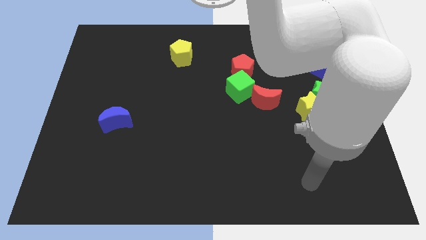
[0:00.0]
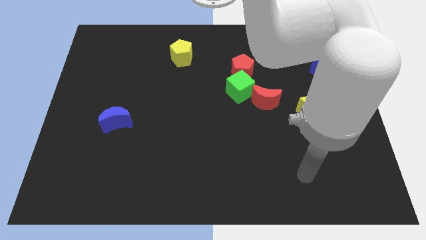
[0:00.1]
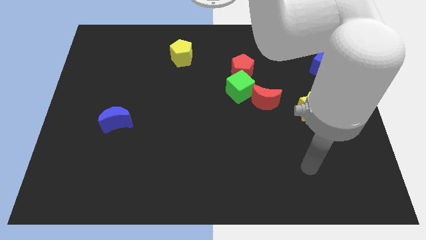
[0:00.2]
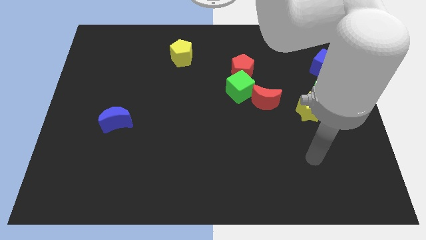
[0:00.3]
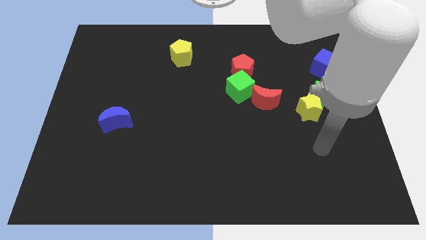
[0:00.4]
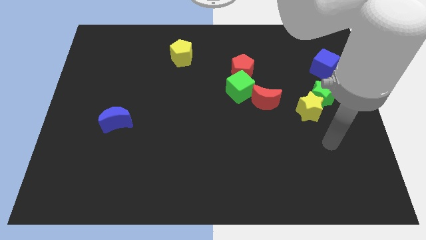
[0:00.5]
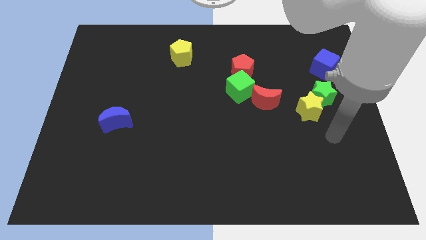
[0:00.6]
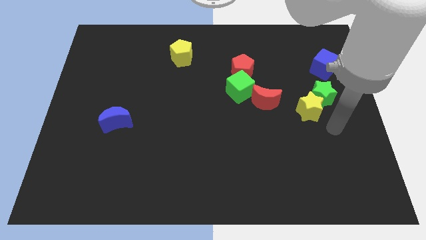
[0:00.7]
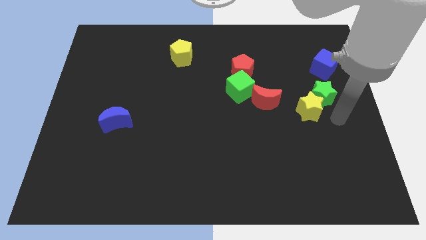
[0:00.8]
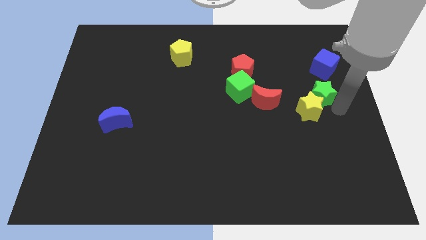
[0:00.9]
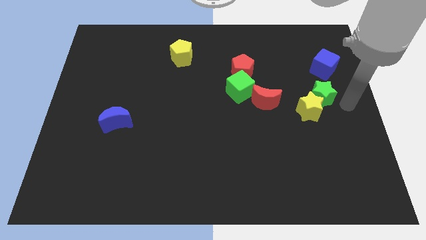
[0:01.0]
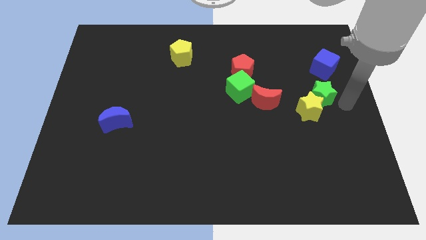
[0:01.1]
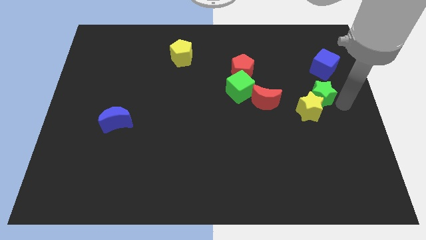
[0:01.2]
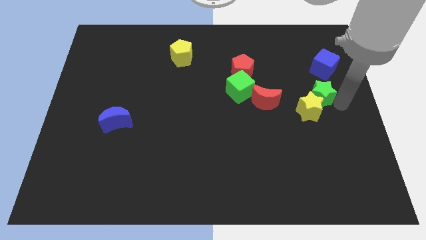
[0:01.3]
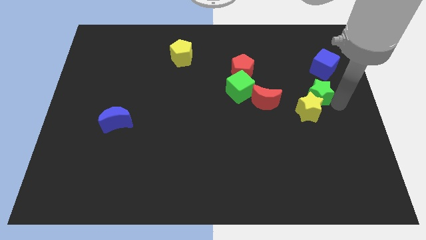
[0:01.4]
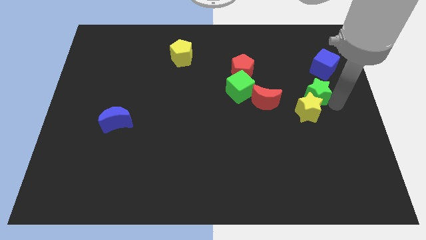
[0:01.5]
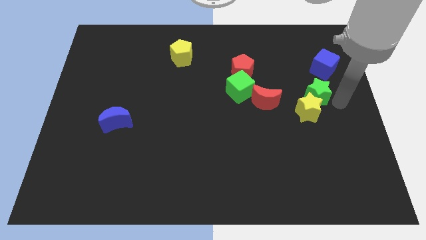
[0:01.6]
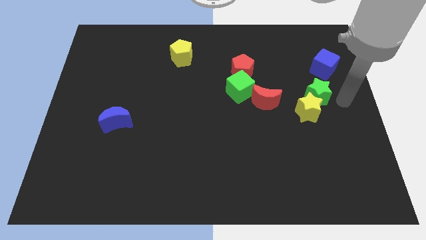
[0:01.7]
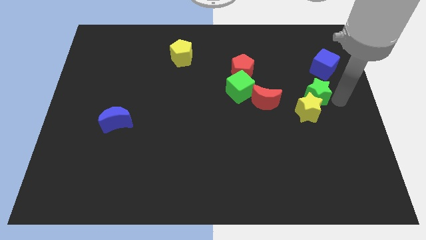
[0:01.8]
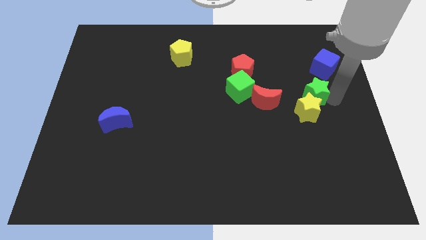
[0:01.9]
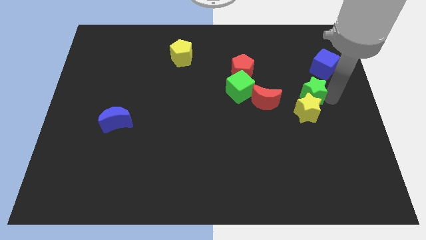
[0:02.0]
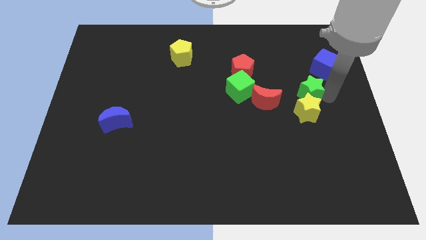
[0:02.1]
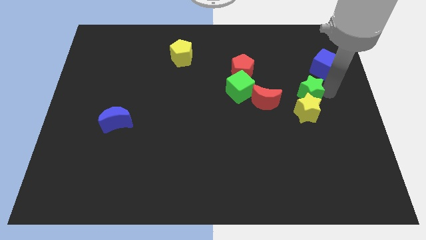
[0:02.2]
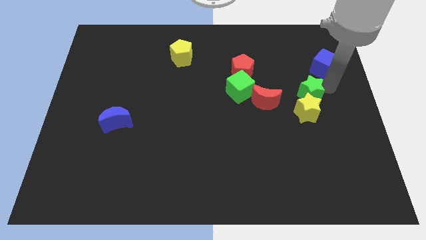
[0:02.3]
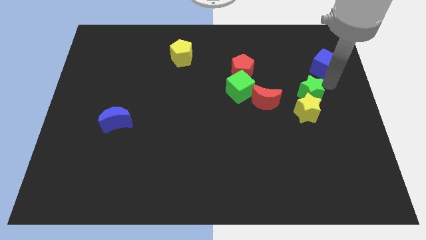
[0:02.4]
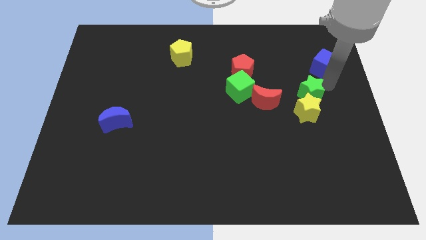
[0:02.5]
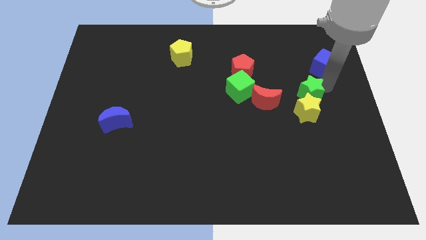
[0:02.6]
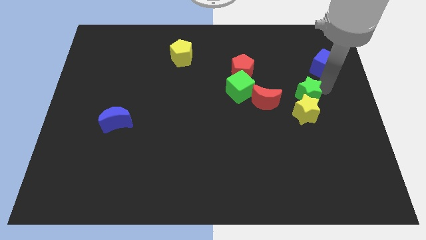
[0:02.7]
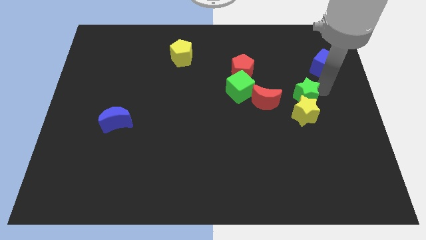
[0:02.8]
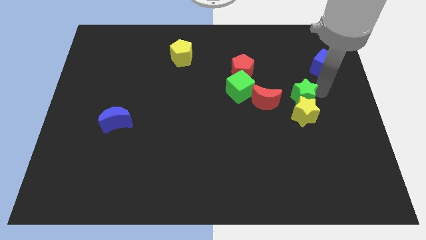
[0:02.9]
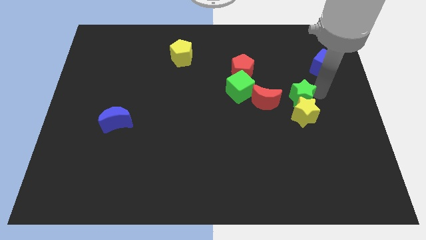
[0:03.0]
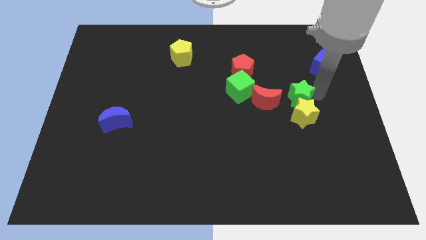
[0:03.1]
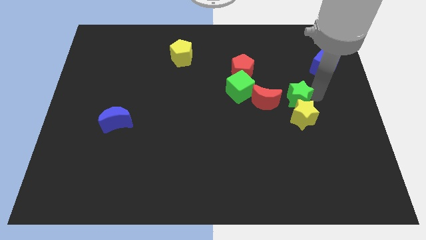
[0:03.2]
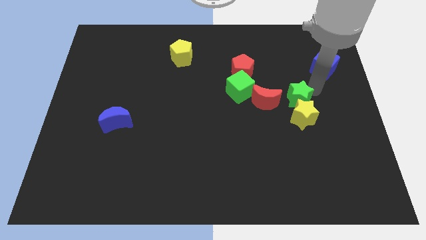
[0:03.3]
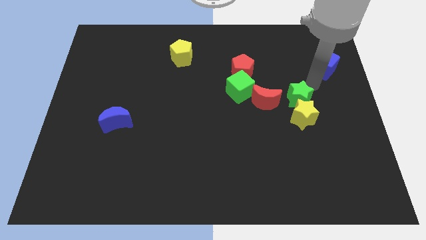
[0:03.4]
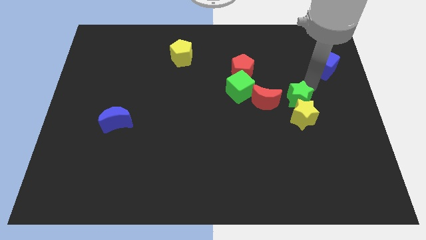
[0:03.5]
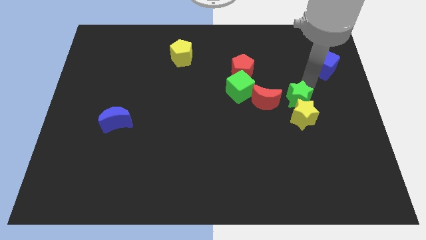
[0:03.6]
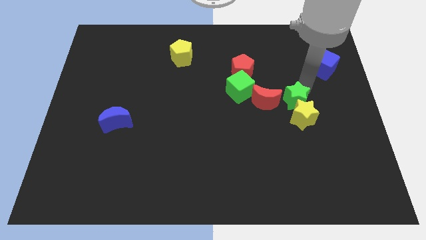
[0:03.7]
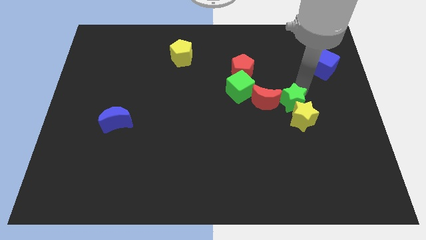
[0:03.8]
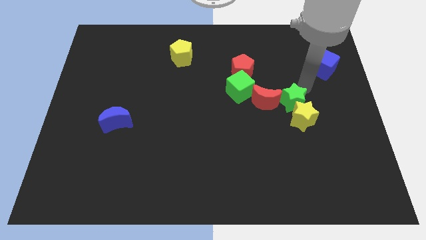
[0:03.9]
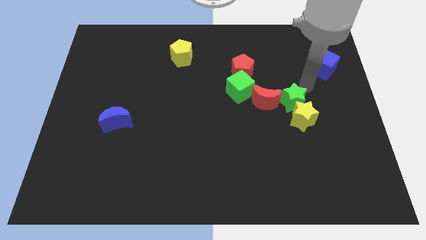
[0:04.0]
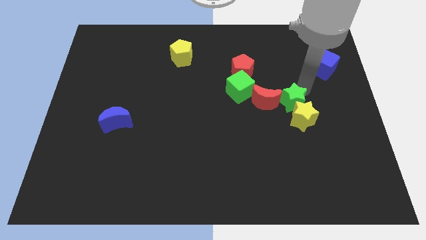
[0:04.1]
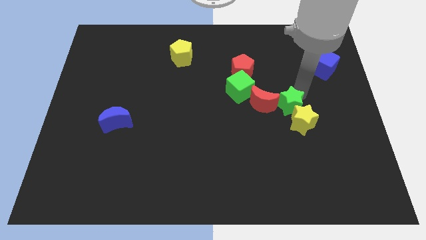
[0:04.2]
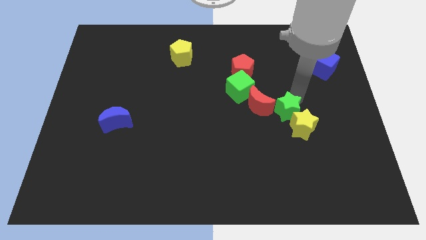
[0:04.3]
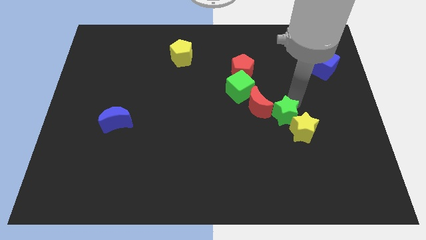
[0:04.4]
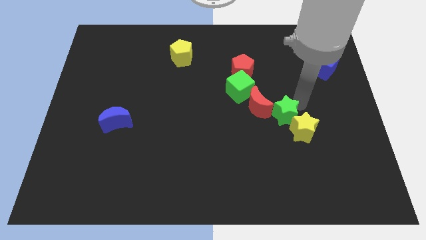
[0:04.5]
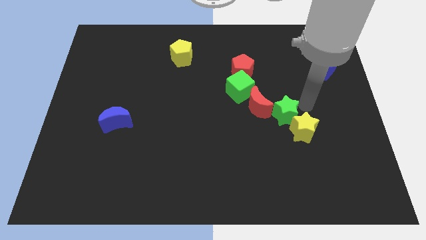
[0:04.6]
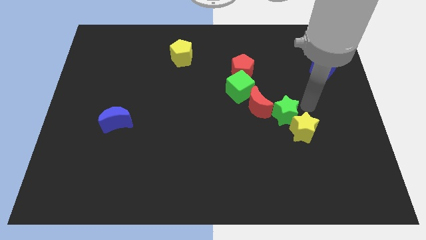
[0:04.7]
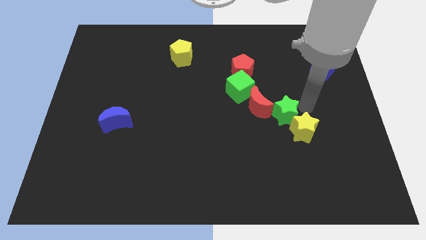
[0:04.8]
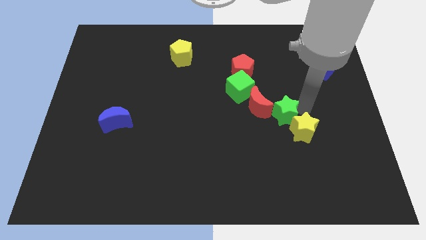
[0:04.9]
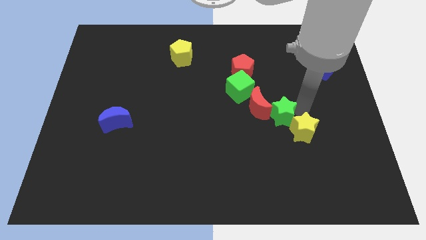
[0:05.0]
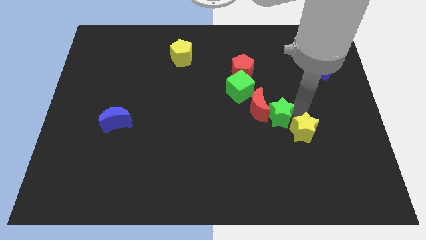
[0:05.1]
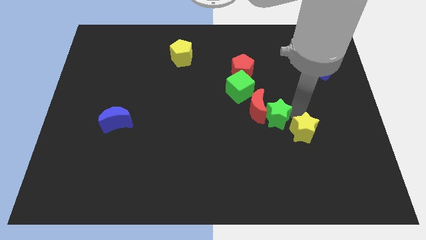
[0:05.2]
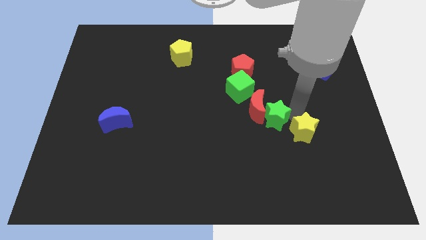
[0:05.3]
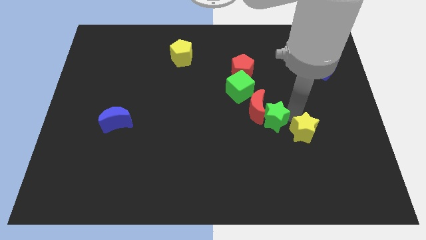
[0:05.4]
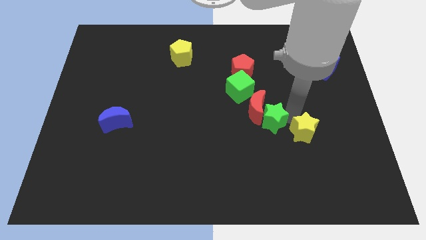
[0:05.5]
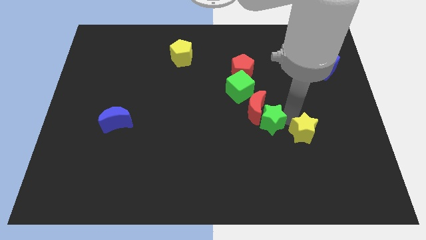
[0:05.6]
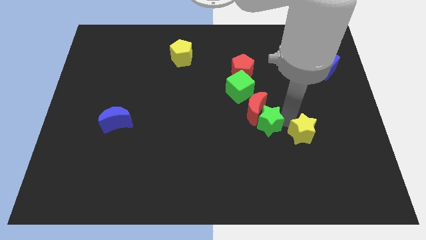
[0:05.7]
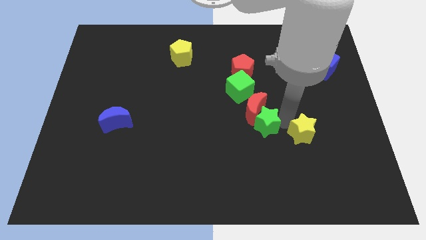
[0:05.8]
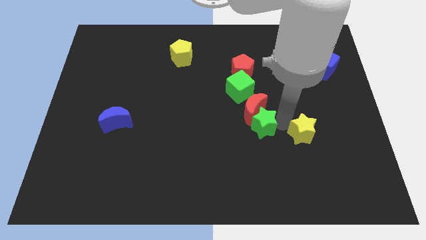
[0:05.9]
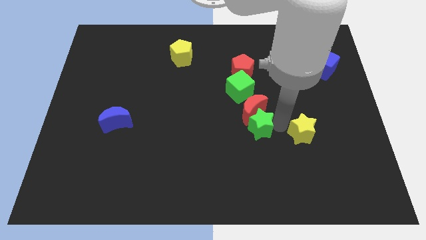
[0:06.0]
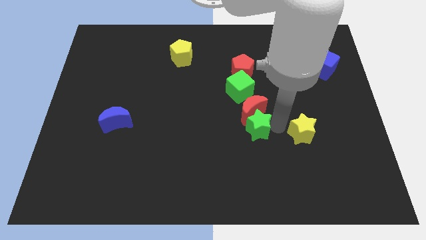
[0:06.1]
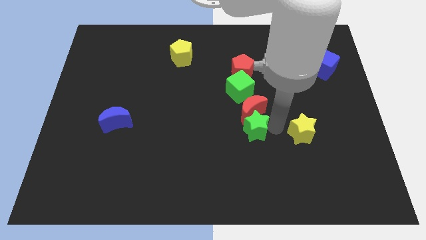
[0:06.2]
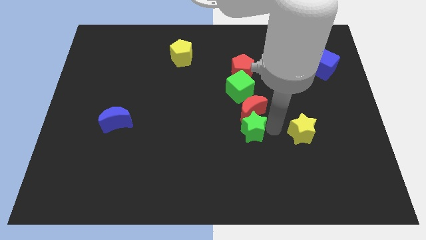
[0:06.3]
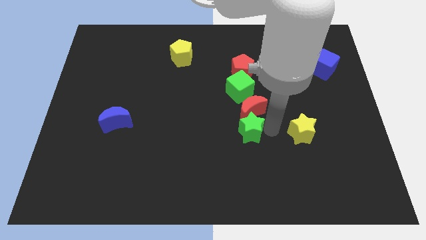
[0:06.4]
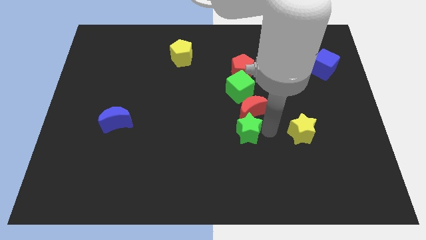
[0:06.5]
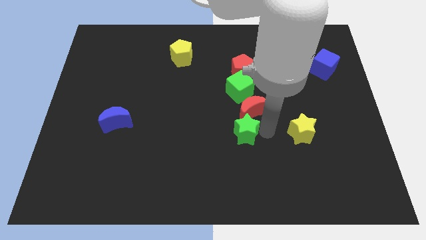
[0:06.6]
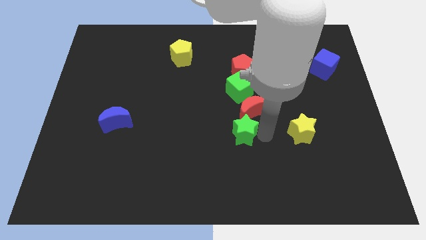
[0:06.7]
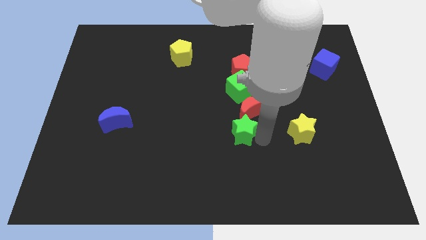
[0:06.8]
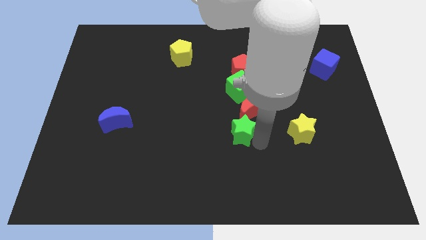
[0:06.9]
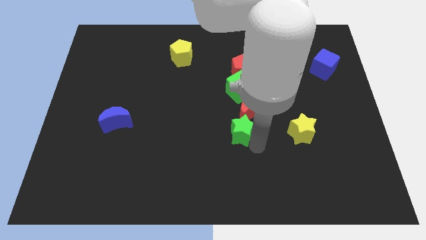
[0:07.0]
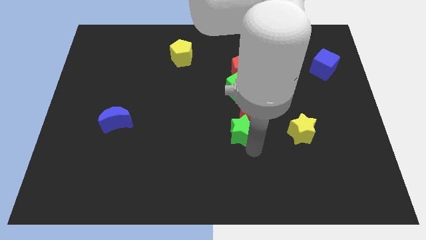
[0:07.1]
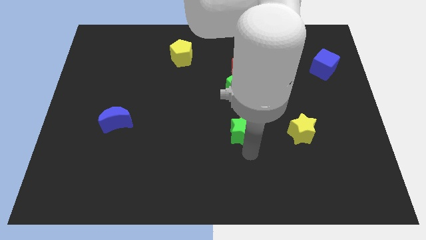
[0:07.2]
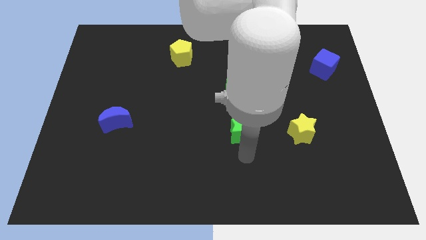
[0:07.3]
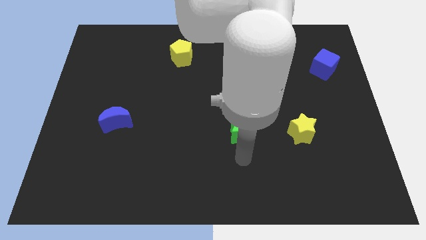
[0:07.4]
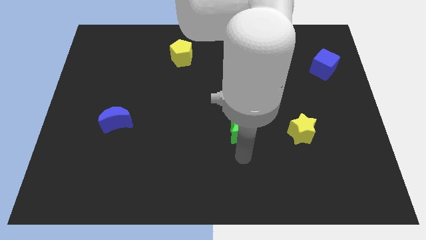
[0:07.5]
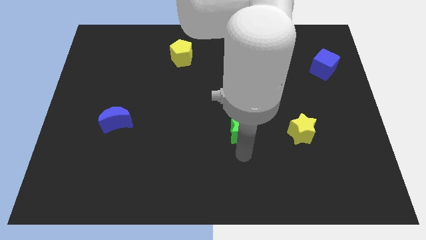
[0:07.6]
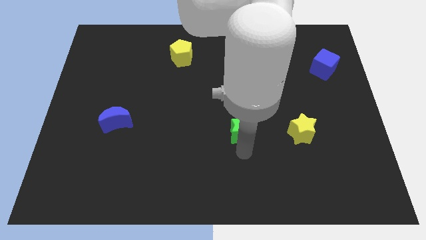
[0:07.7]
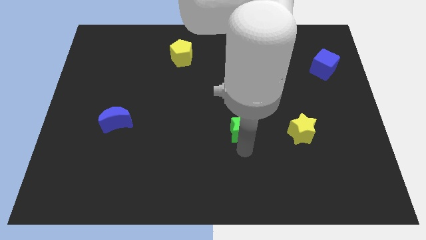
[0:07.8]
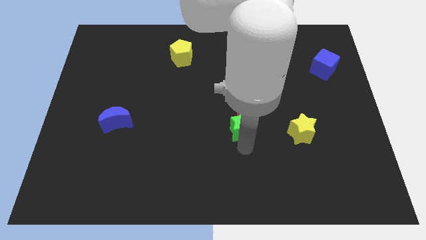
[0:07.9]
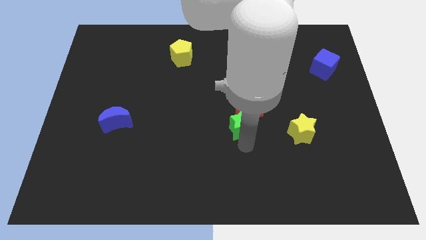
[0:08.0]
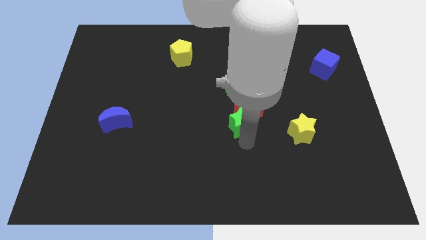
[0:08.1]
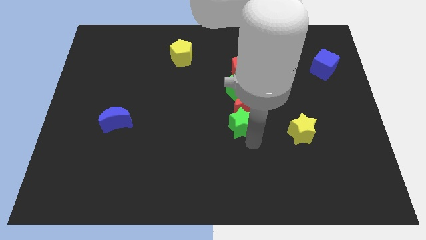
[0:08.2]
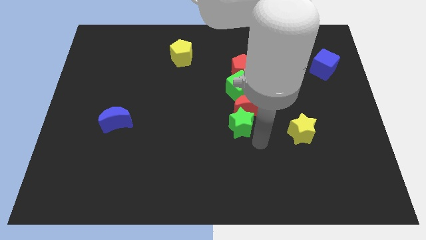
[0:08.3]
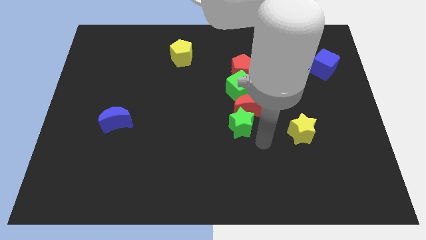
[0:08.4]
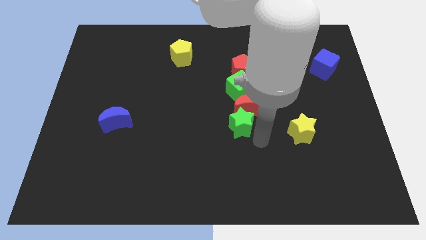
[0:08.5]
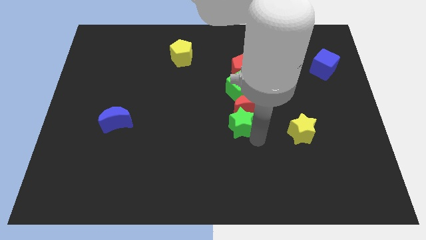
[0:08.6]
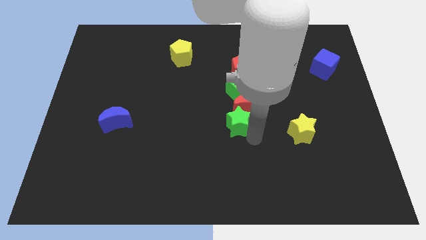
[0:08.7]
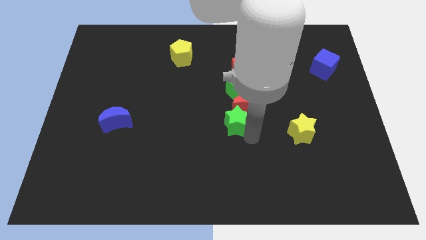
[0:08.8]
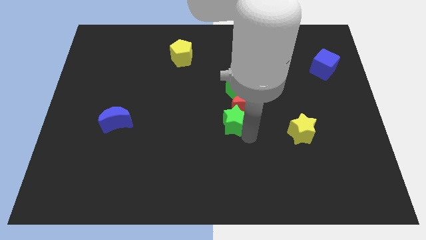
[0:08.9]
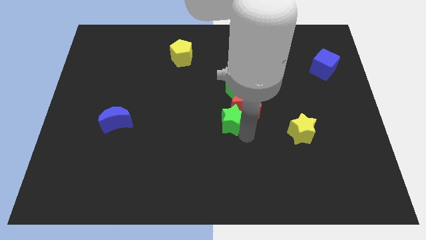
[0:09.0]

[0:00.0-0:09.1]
move the green star left
